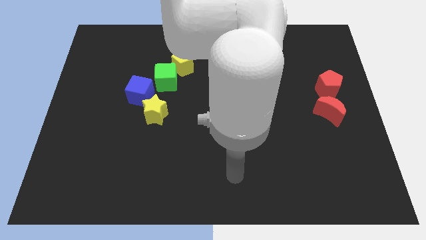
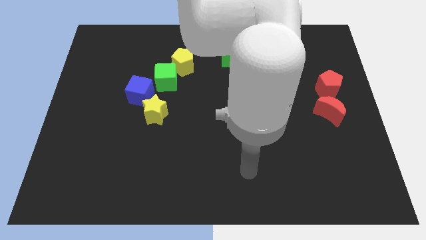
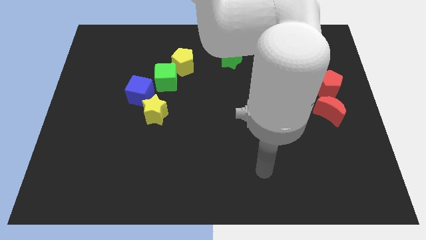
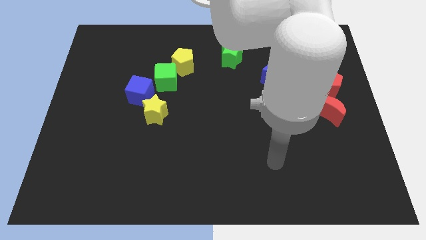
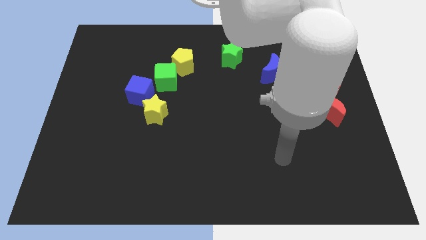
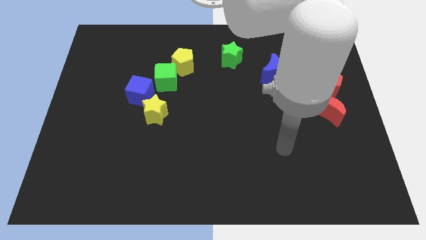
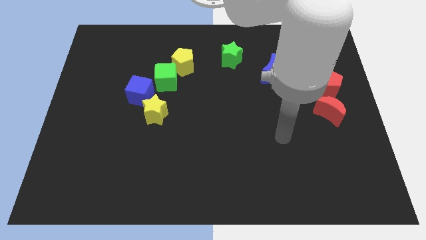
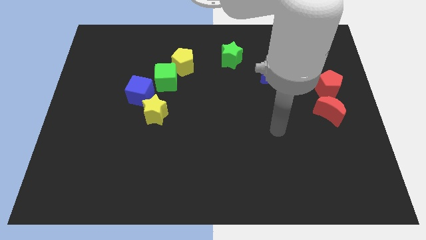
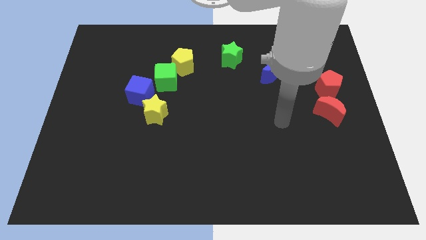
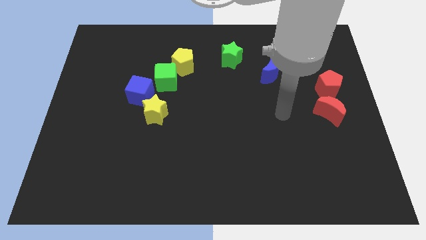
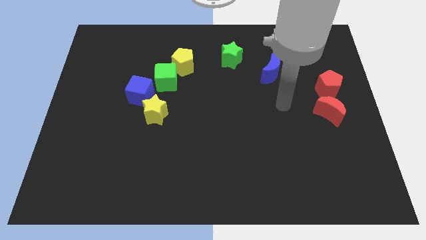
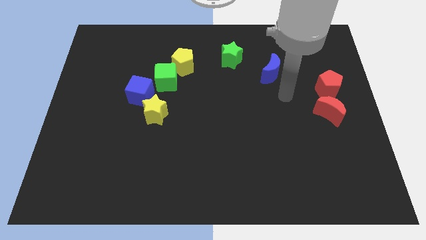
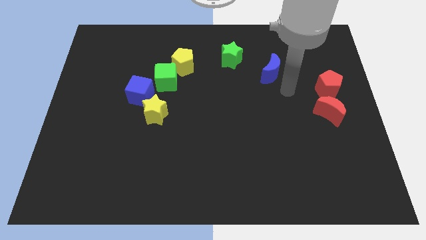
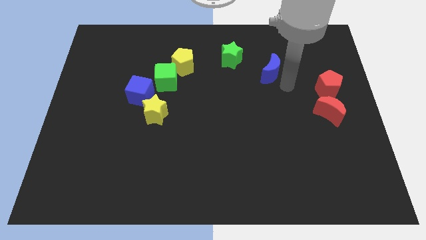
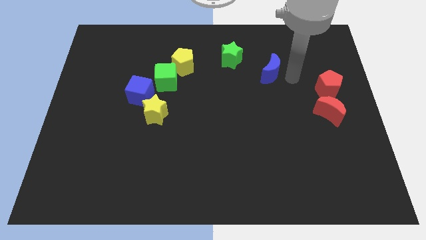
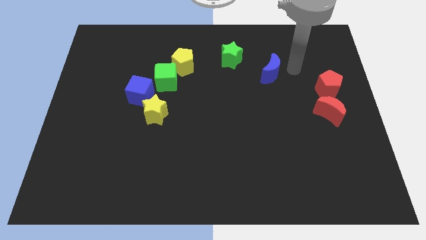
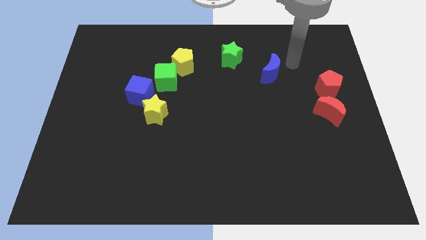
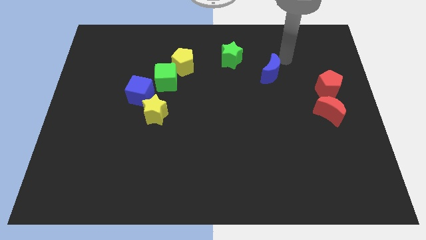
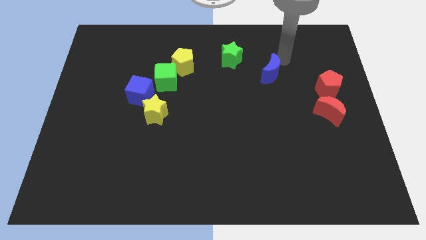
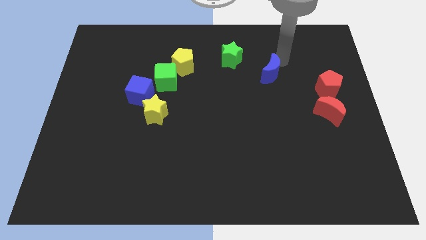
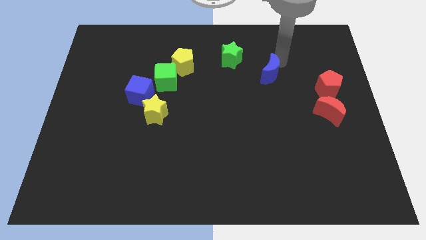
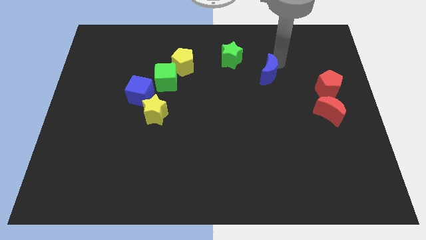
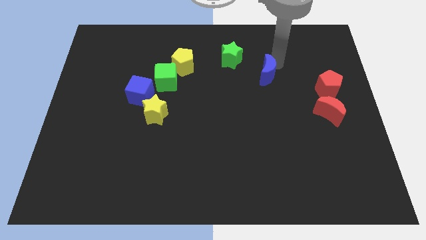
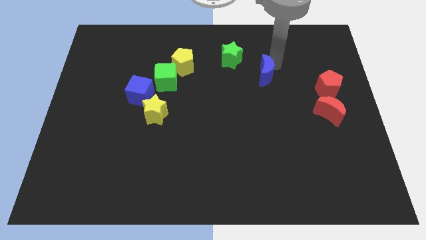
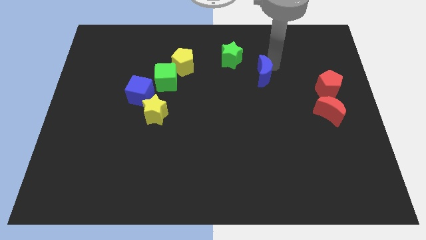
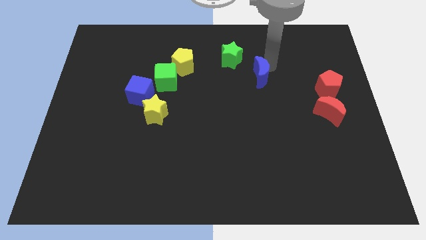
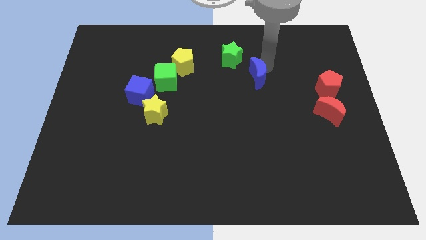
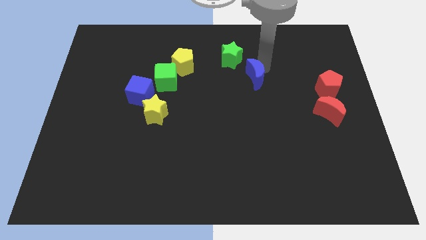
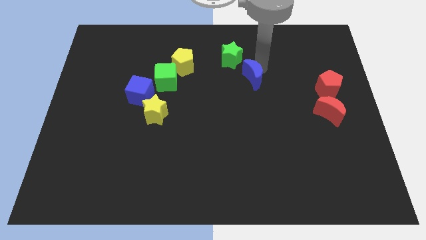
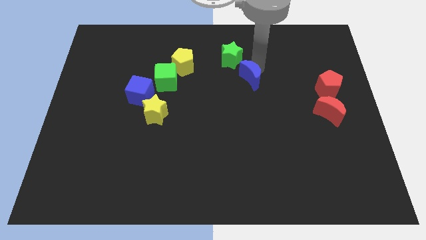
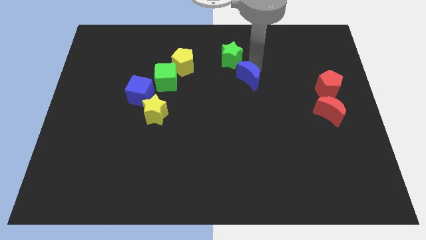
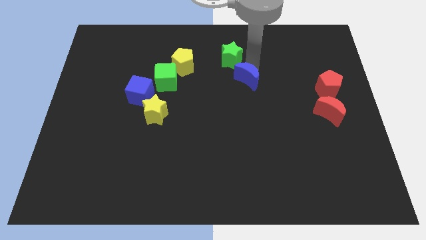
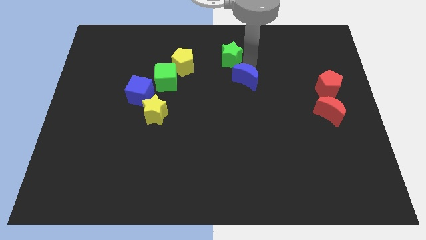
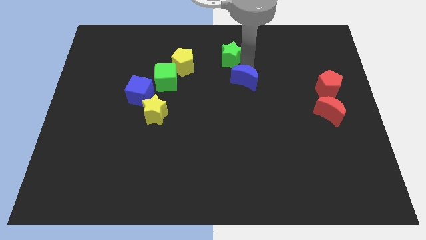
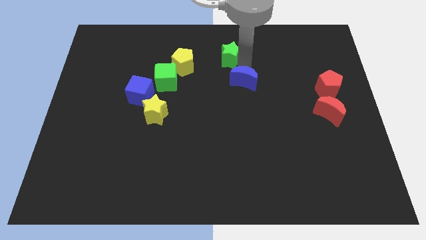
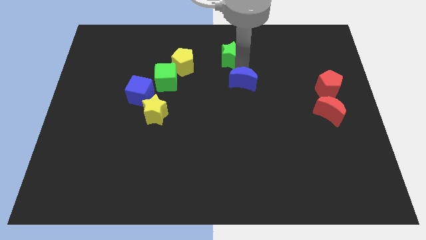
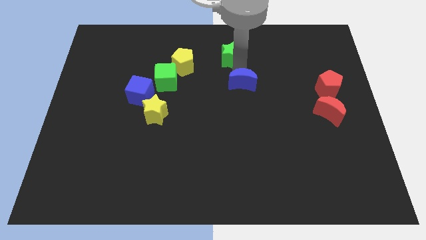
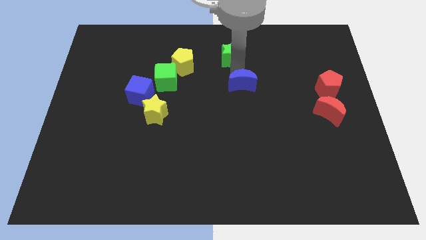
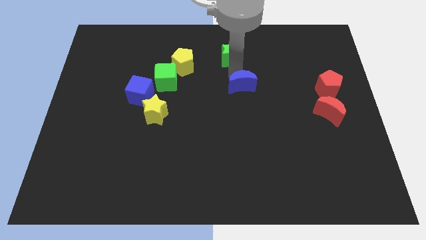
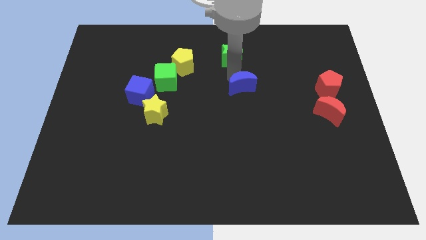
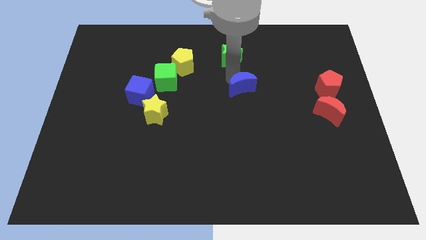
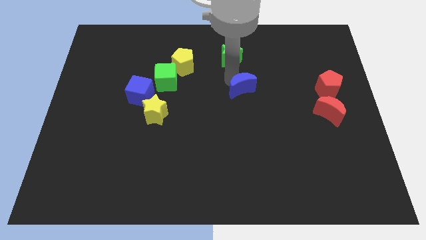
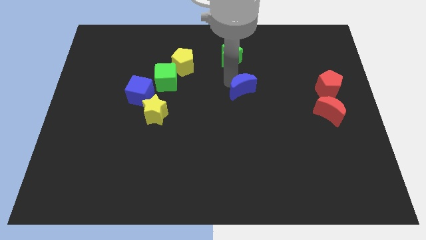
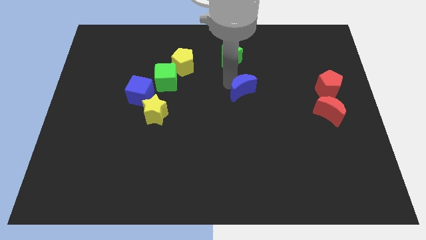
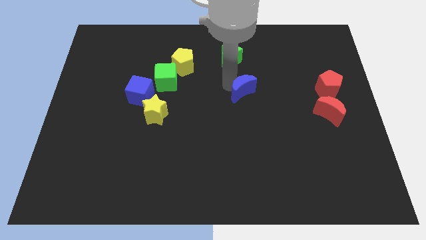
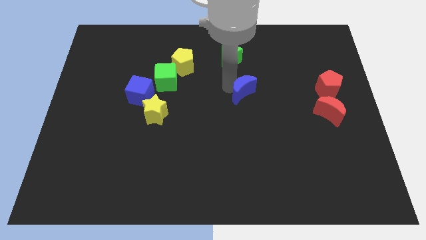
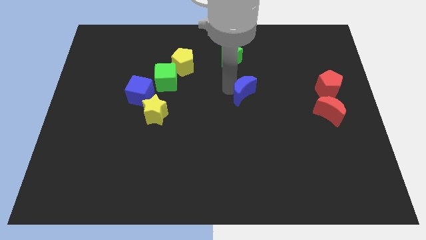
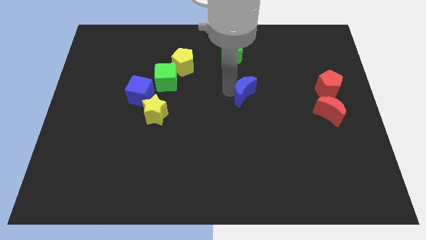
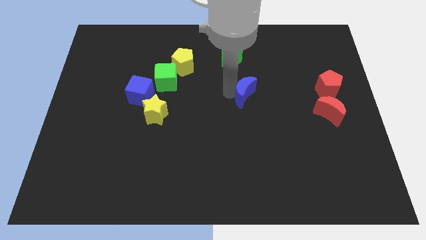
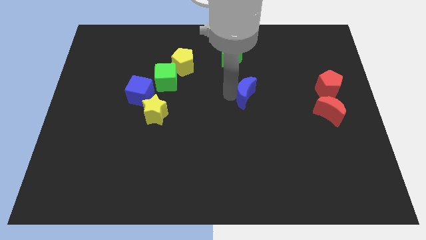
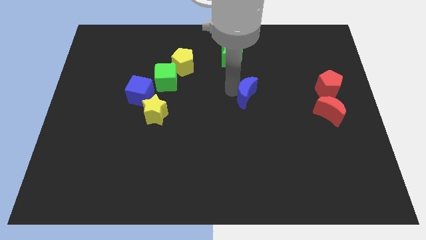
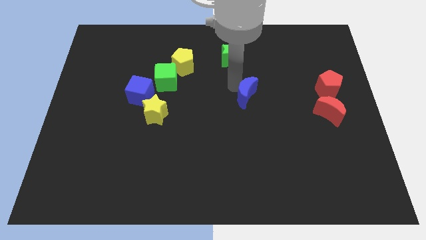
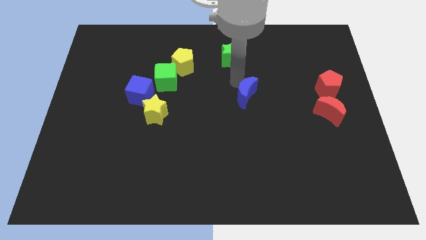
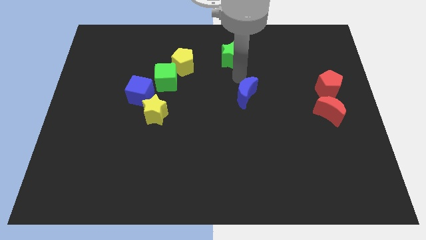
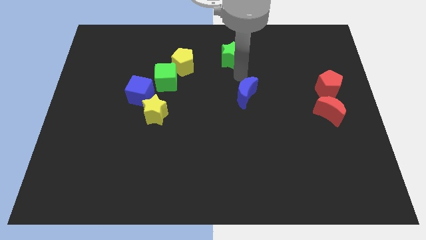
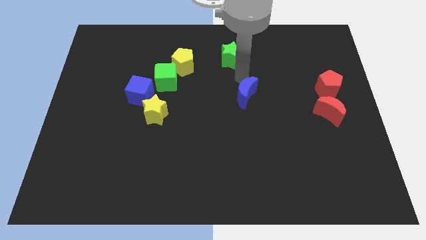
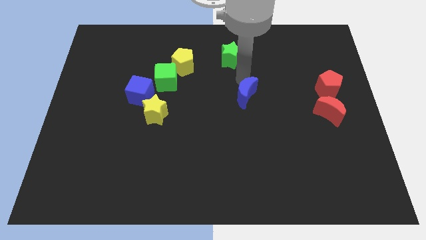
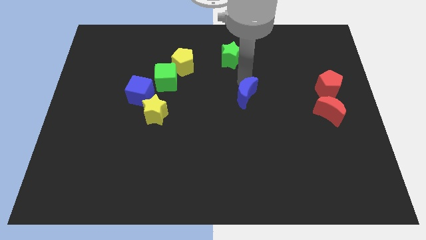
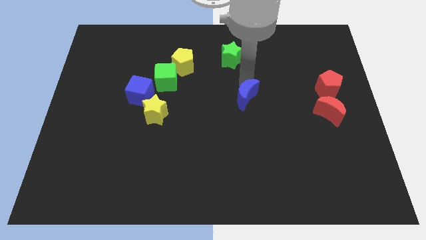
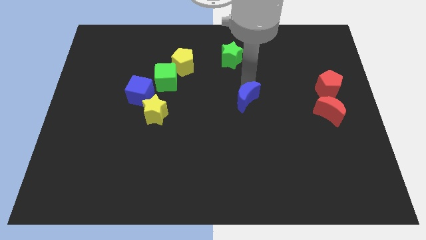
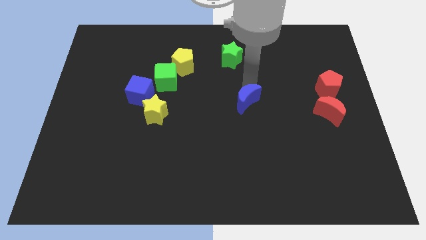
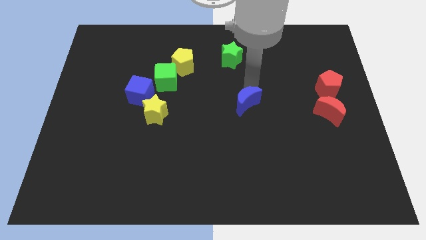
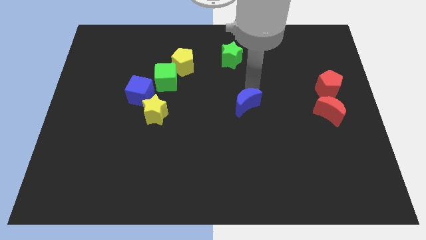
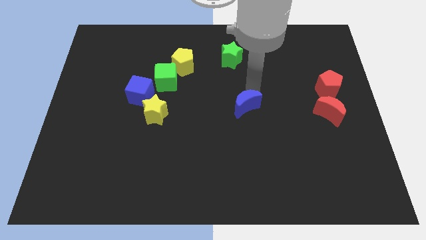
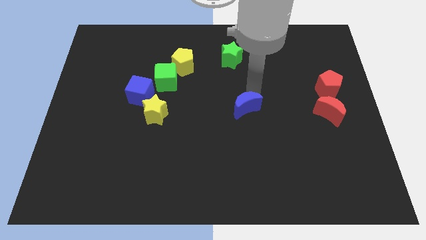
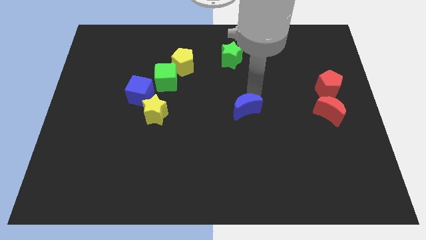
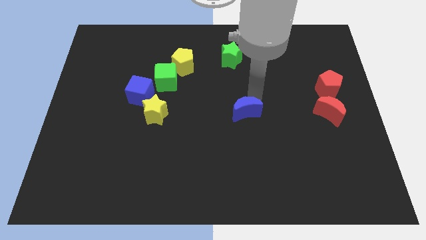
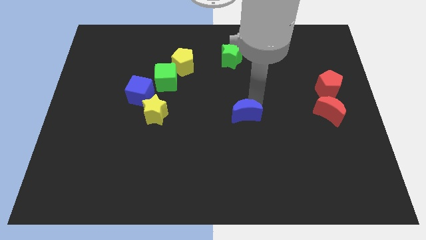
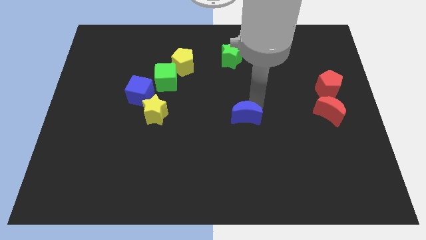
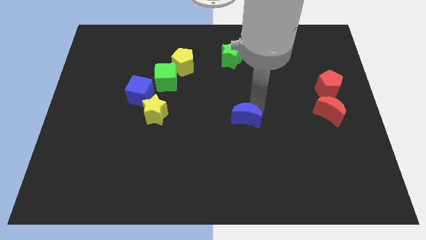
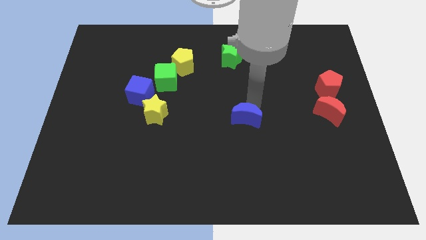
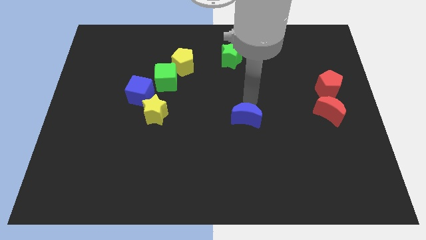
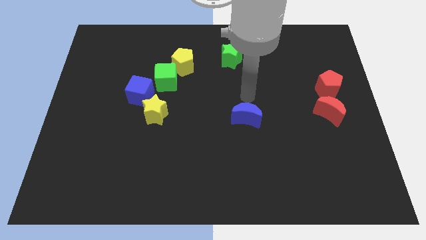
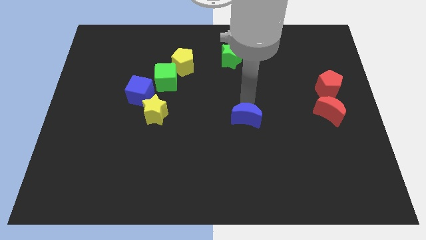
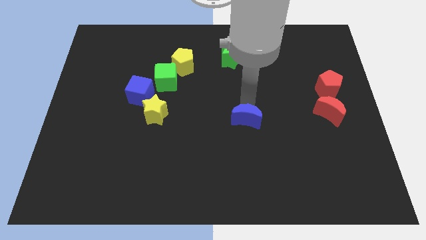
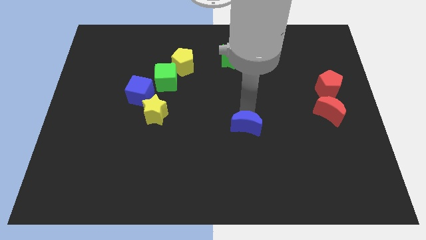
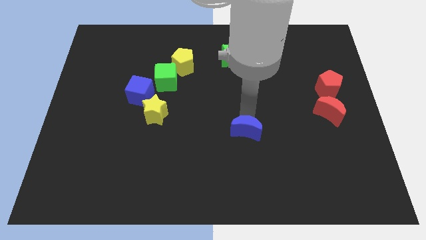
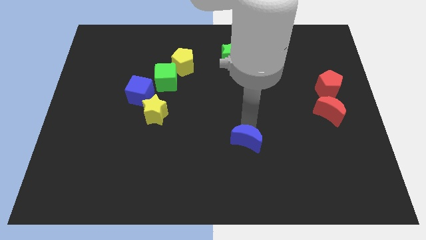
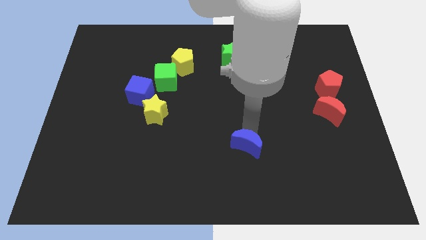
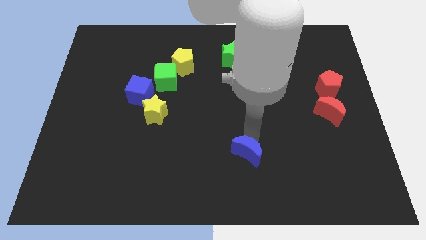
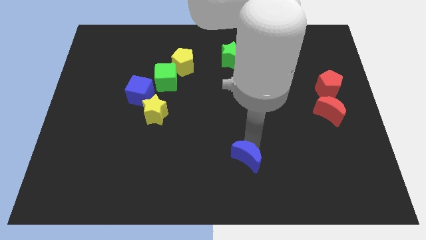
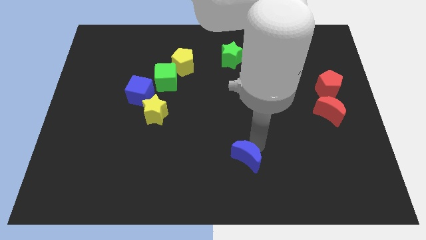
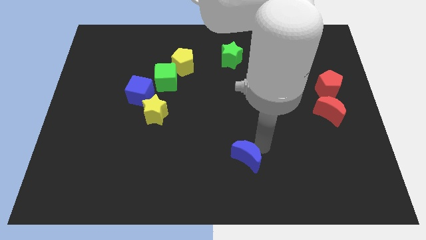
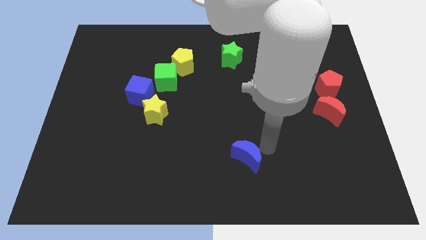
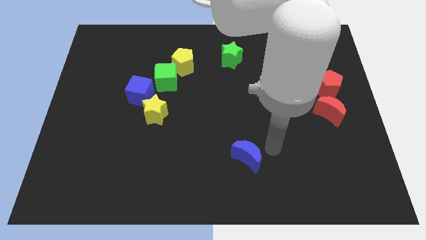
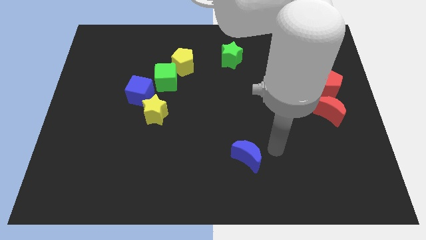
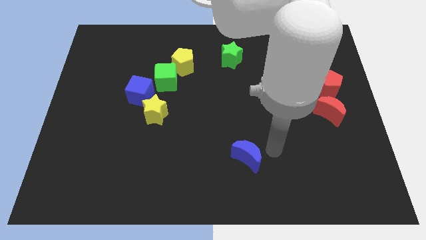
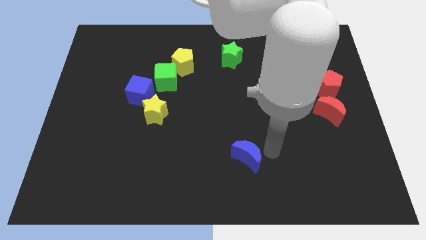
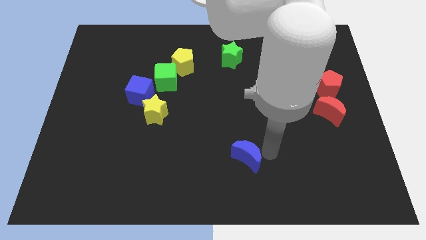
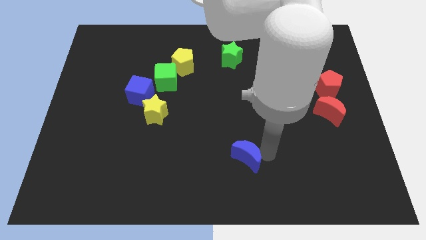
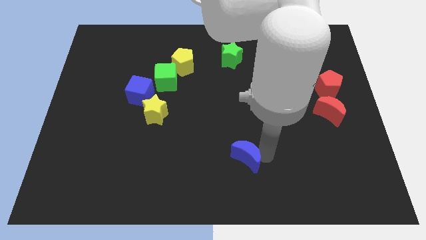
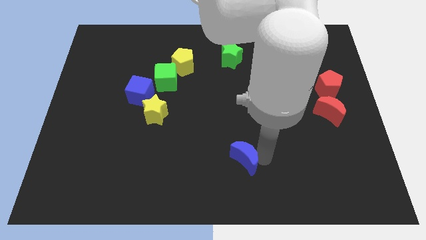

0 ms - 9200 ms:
slide the blue moon to the bottom side
